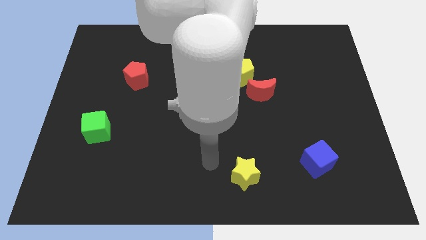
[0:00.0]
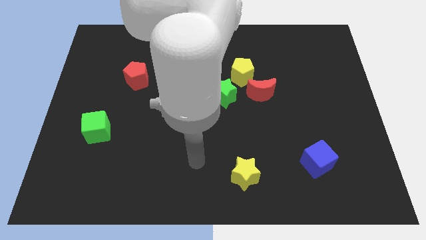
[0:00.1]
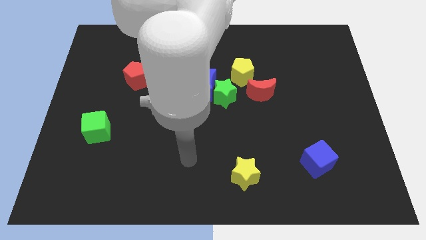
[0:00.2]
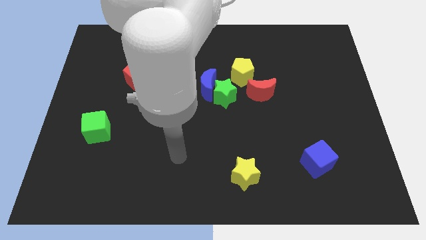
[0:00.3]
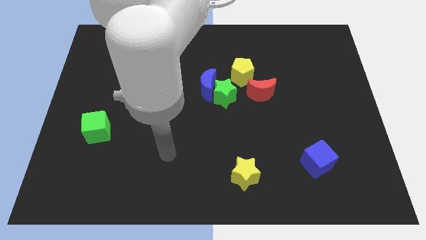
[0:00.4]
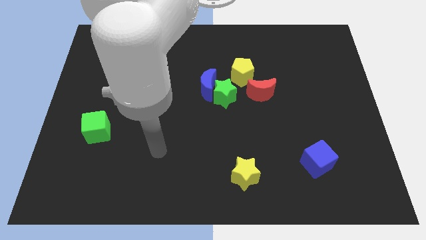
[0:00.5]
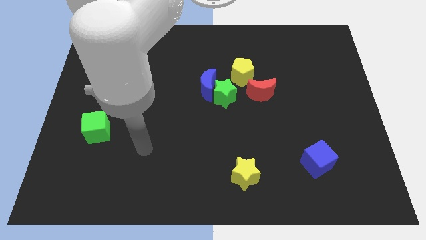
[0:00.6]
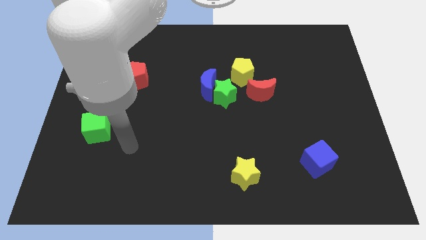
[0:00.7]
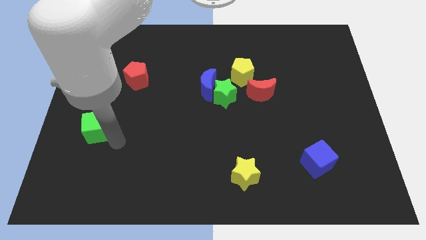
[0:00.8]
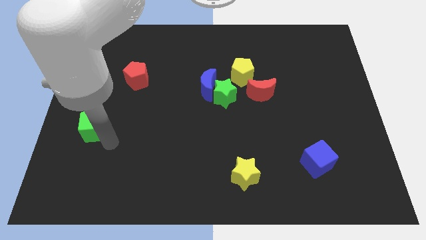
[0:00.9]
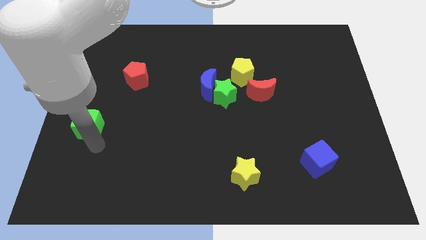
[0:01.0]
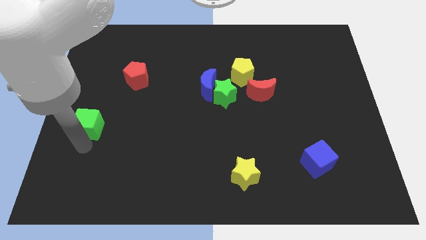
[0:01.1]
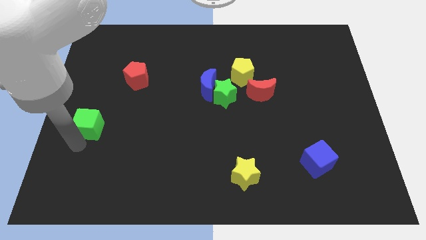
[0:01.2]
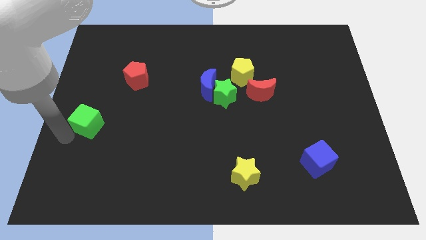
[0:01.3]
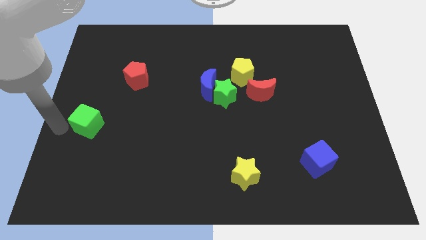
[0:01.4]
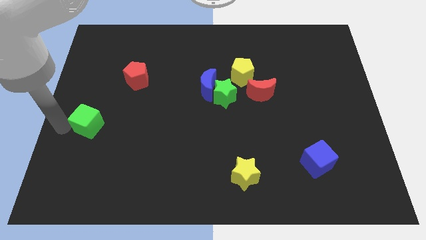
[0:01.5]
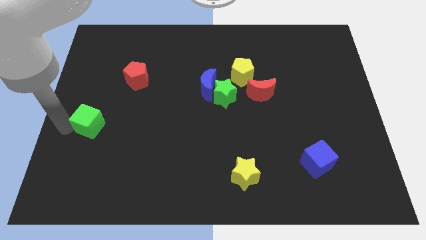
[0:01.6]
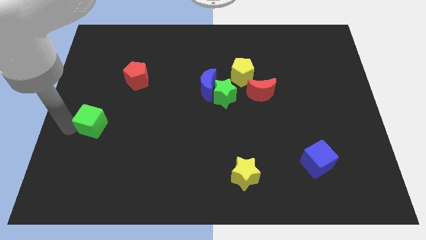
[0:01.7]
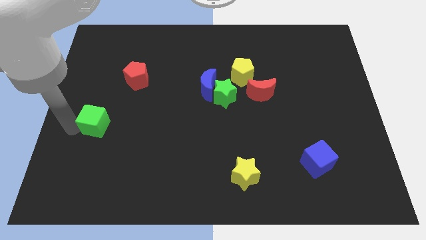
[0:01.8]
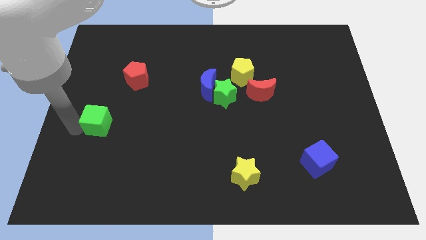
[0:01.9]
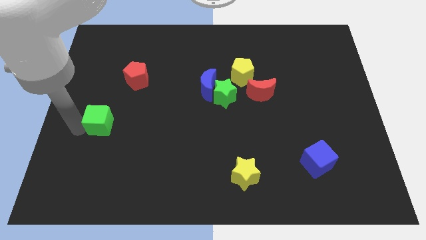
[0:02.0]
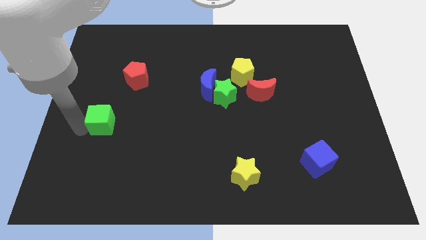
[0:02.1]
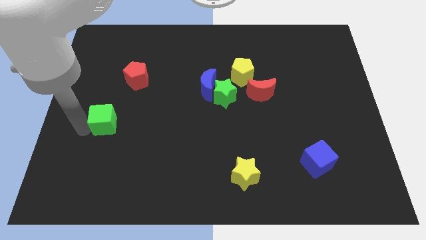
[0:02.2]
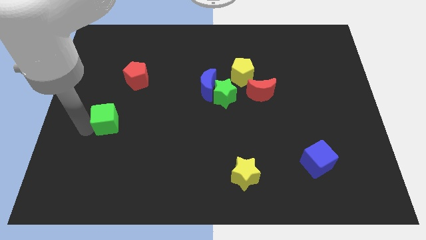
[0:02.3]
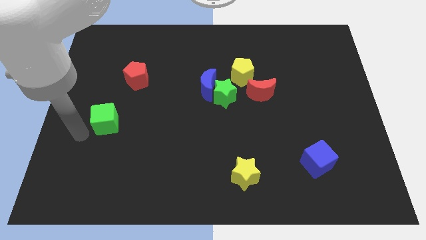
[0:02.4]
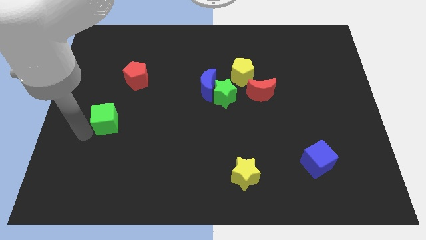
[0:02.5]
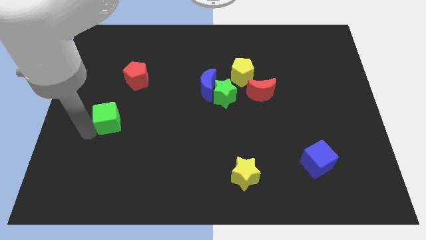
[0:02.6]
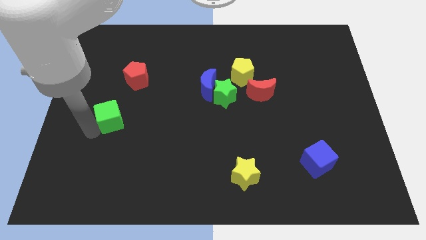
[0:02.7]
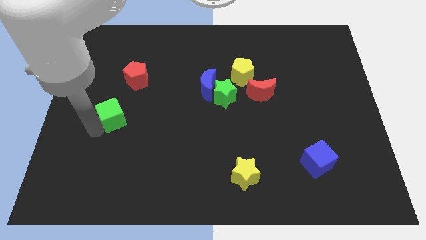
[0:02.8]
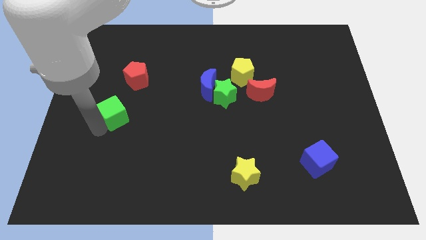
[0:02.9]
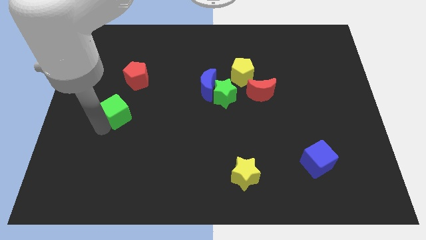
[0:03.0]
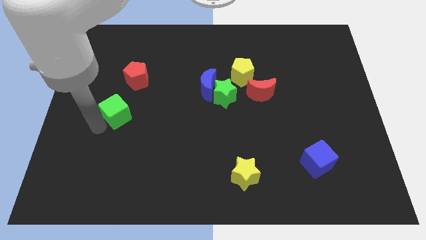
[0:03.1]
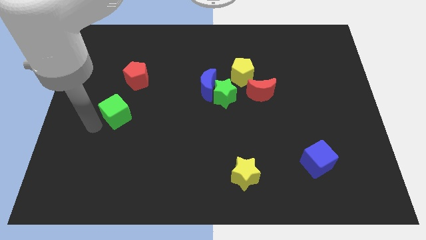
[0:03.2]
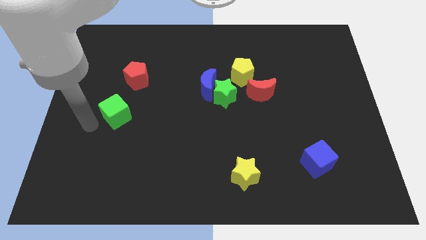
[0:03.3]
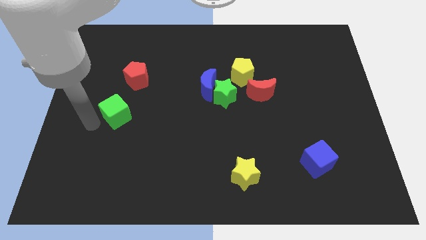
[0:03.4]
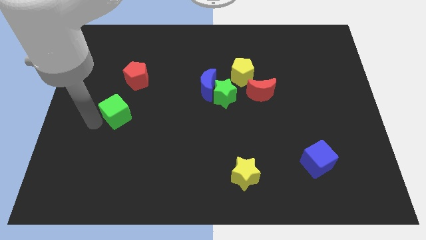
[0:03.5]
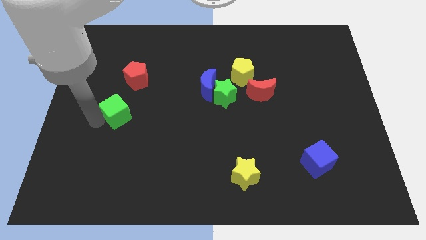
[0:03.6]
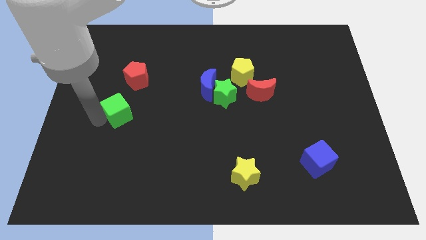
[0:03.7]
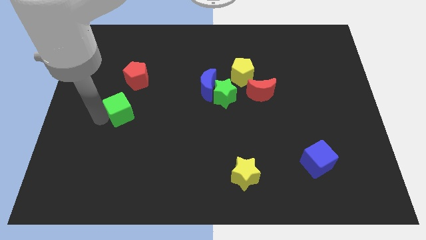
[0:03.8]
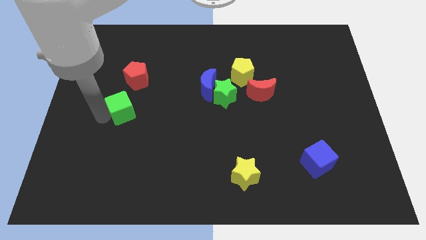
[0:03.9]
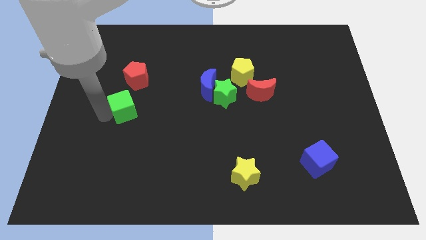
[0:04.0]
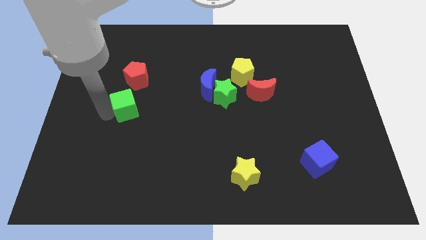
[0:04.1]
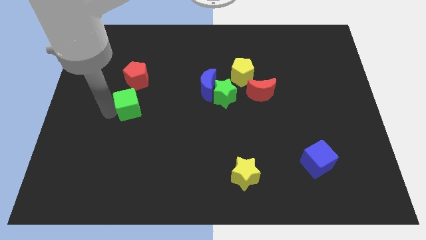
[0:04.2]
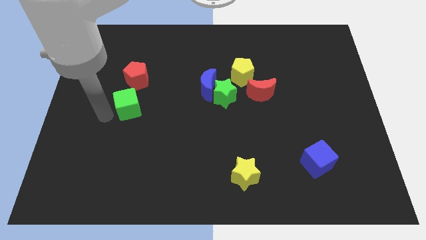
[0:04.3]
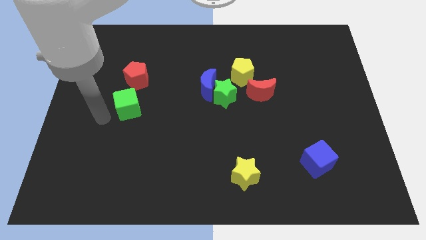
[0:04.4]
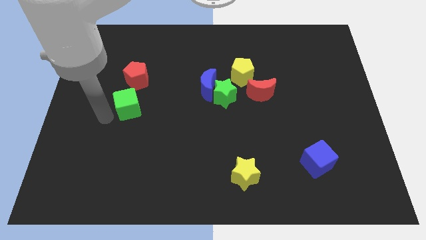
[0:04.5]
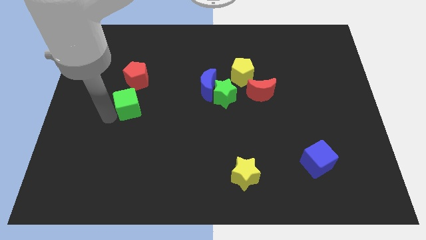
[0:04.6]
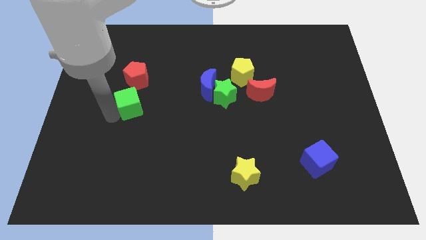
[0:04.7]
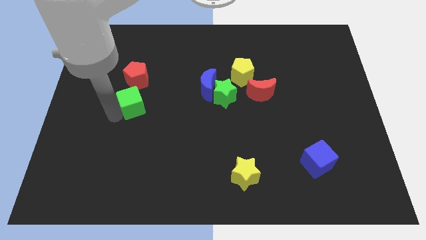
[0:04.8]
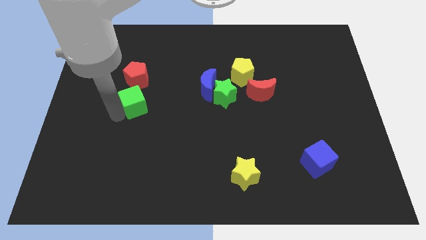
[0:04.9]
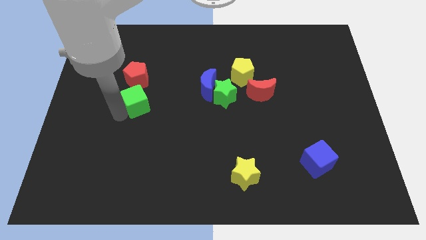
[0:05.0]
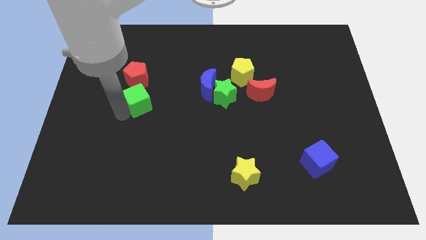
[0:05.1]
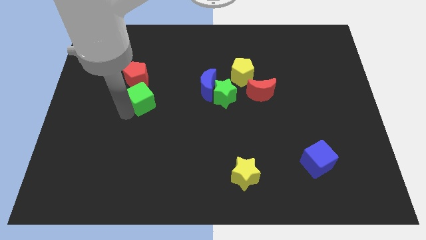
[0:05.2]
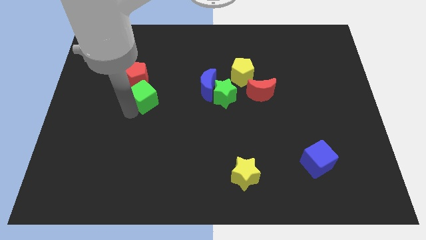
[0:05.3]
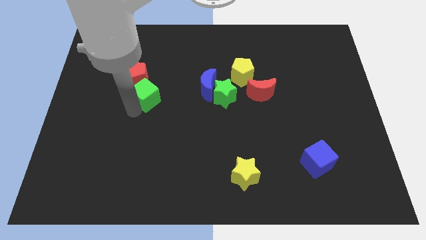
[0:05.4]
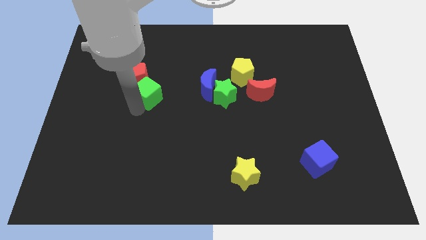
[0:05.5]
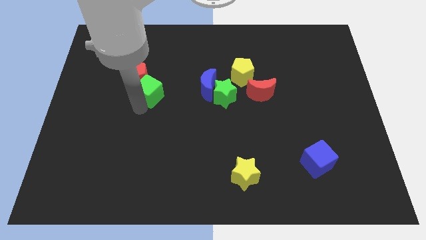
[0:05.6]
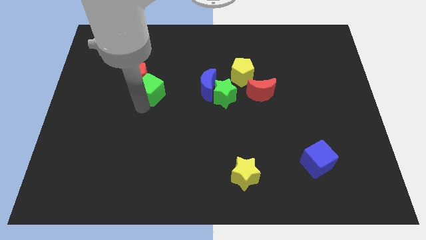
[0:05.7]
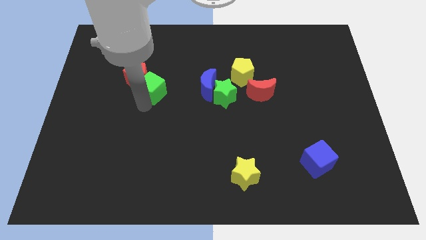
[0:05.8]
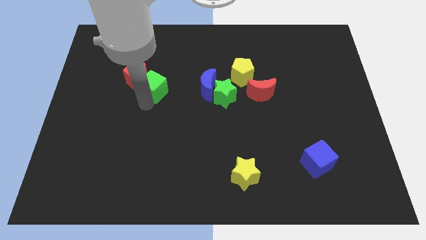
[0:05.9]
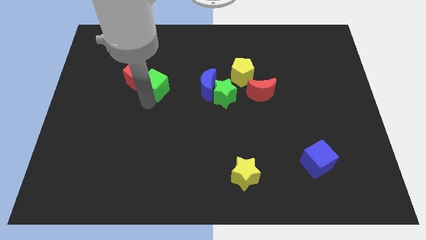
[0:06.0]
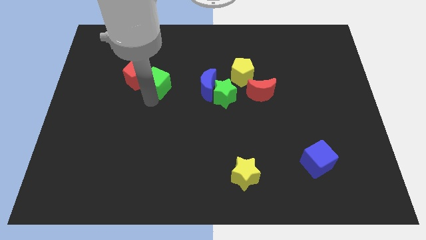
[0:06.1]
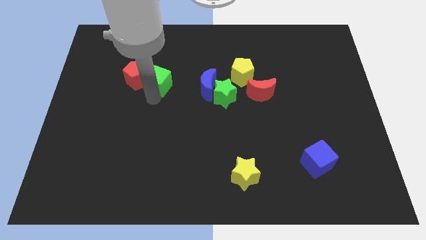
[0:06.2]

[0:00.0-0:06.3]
push the green cube diagonally up and to the right of the red pentagon

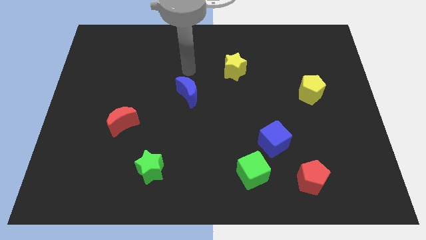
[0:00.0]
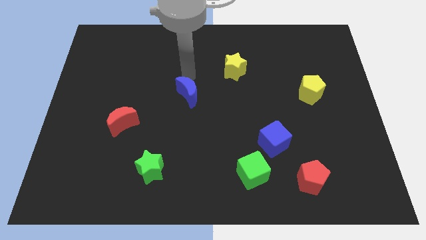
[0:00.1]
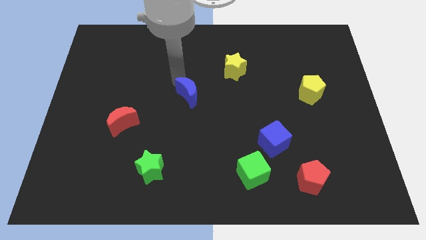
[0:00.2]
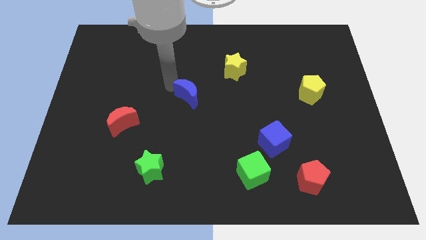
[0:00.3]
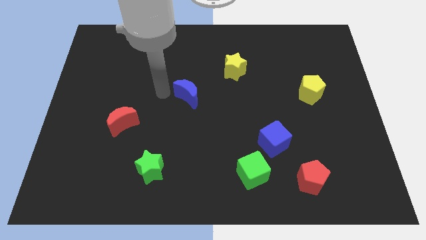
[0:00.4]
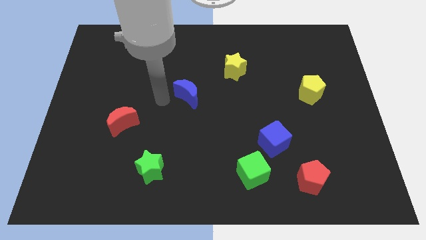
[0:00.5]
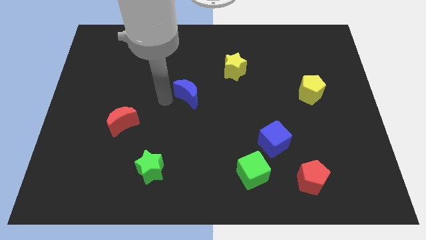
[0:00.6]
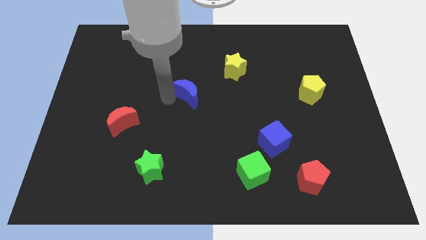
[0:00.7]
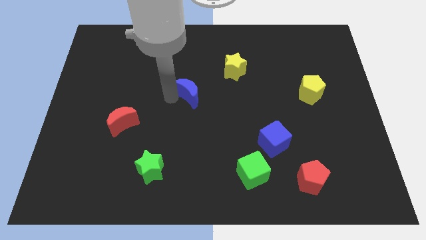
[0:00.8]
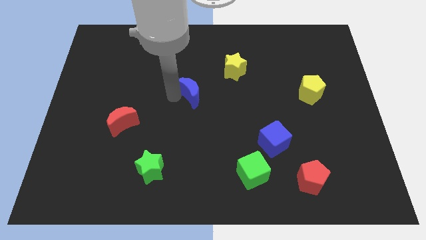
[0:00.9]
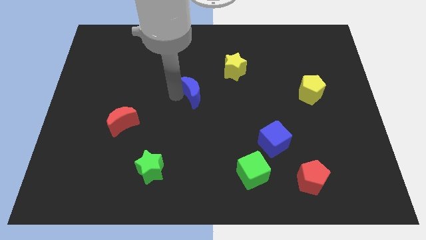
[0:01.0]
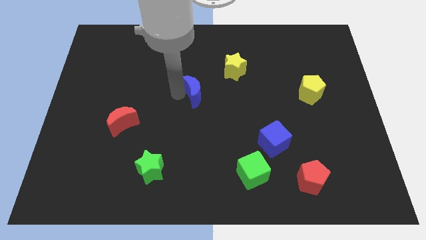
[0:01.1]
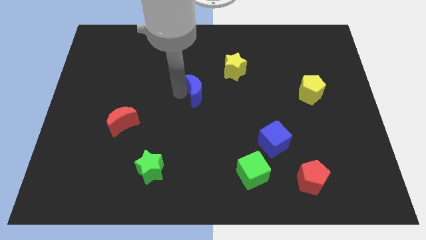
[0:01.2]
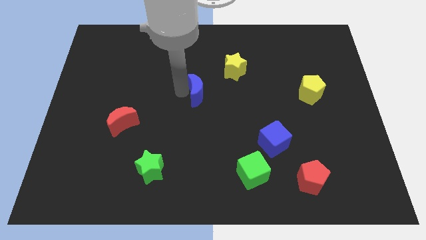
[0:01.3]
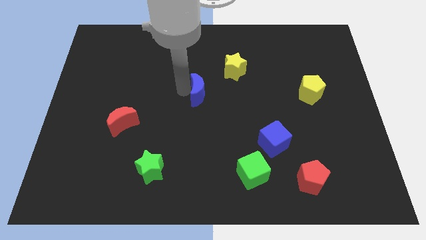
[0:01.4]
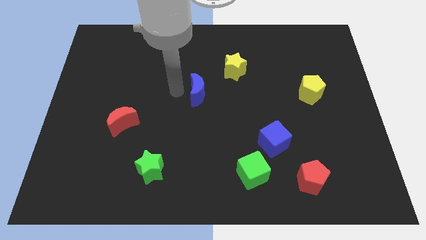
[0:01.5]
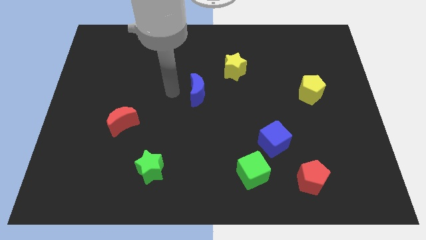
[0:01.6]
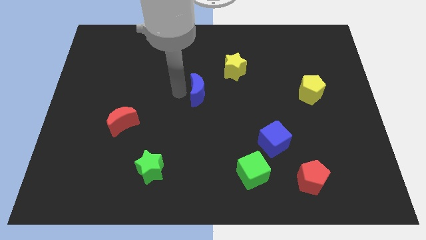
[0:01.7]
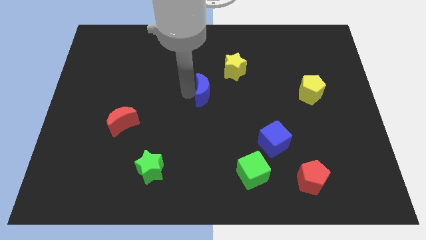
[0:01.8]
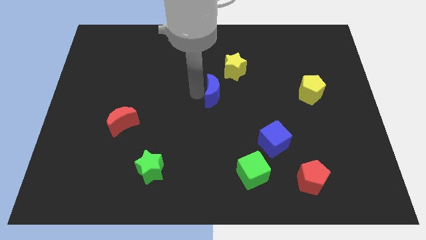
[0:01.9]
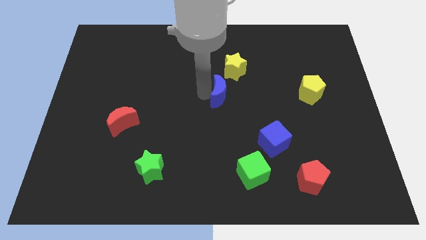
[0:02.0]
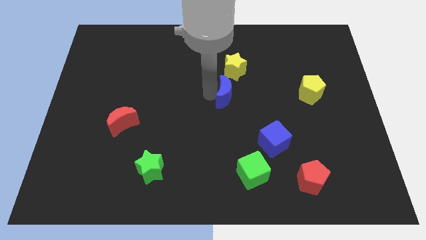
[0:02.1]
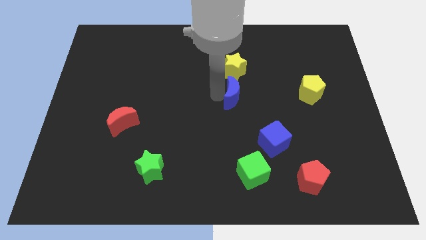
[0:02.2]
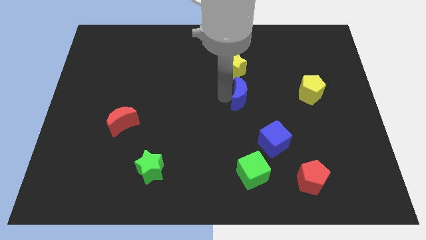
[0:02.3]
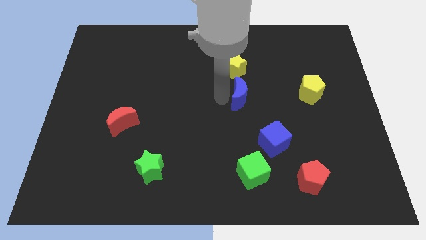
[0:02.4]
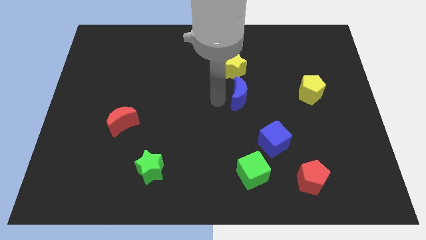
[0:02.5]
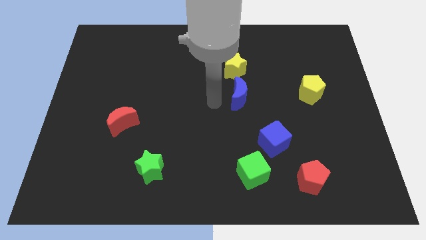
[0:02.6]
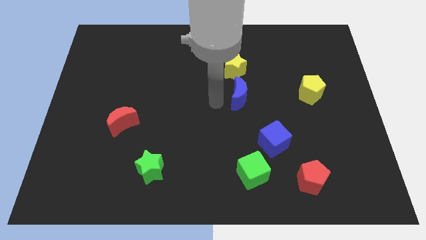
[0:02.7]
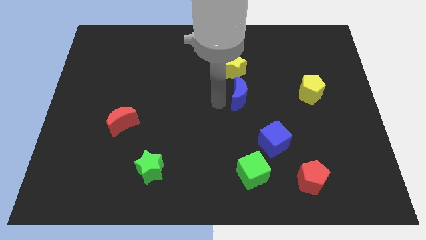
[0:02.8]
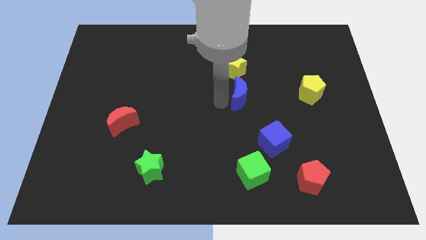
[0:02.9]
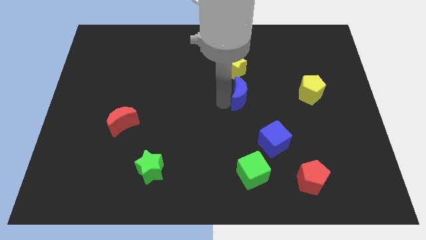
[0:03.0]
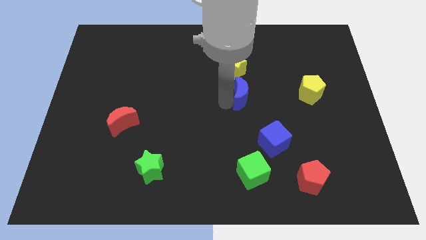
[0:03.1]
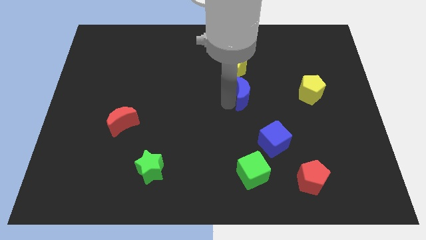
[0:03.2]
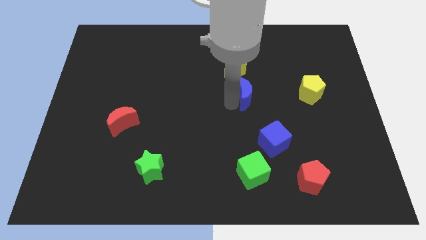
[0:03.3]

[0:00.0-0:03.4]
slide the blue moon just left of the yellow pentagon
